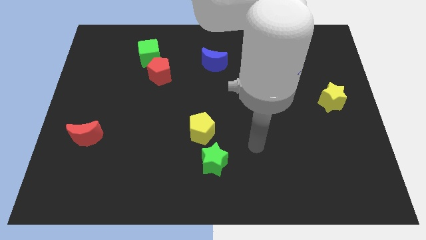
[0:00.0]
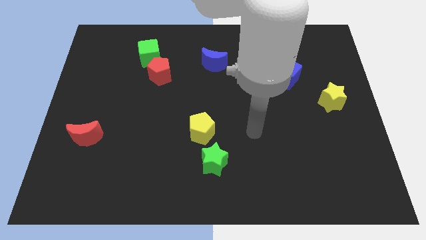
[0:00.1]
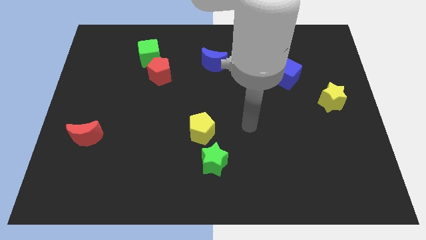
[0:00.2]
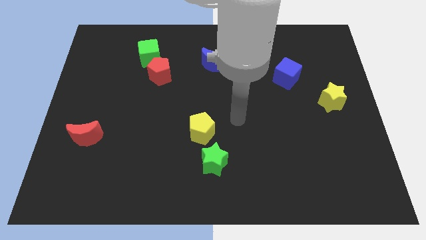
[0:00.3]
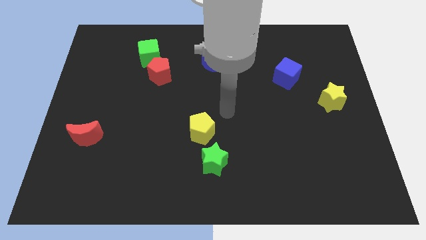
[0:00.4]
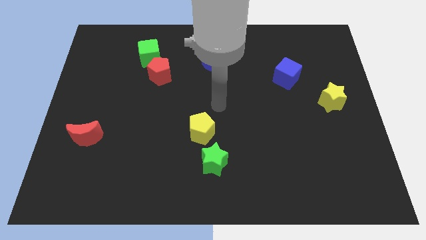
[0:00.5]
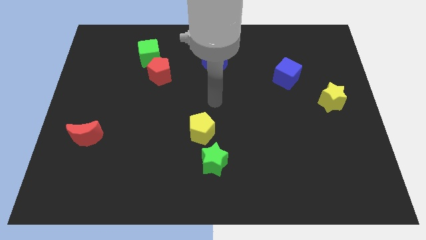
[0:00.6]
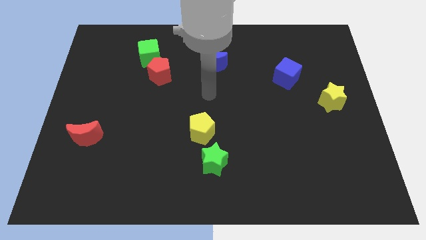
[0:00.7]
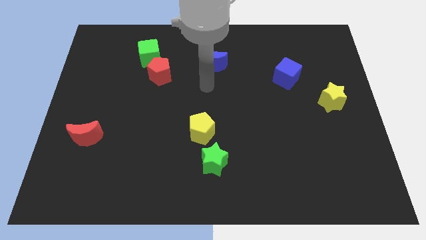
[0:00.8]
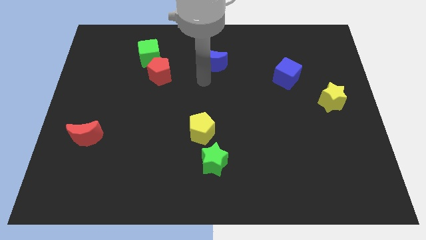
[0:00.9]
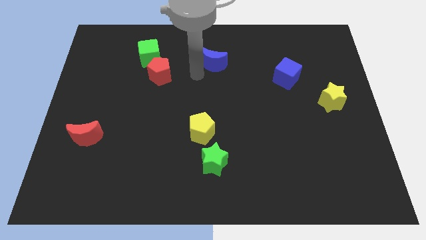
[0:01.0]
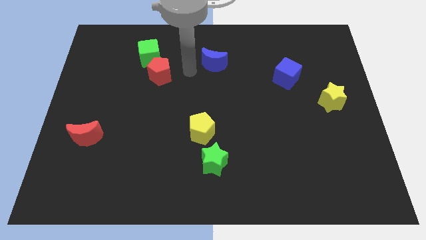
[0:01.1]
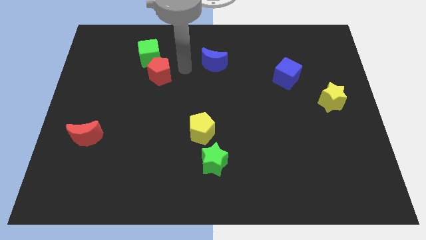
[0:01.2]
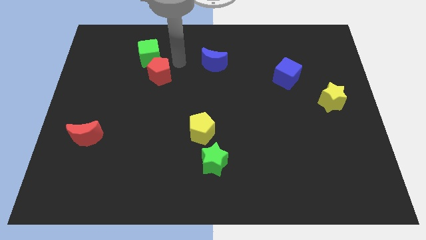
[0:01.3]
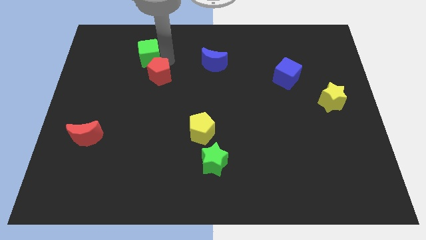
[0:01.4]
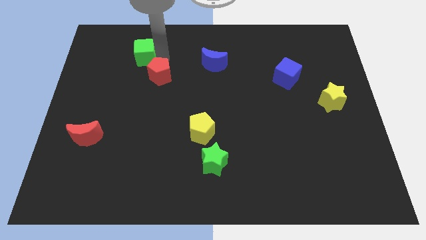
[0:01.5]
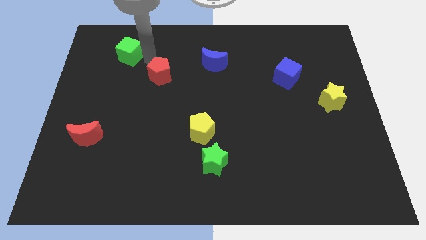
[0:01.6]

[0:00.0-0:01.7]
separate the red pentagon from the green cube

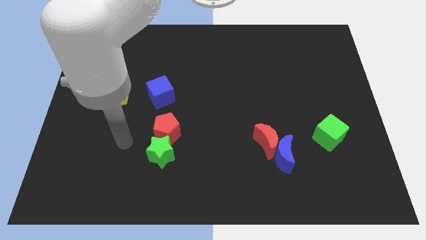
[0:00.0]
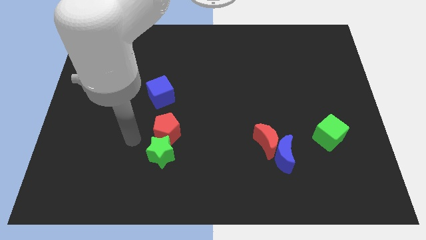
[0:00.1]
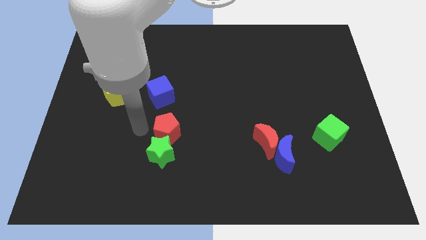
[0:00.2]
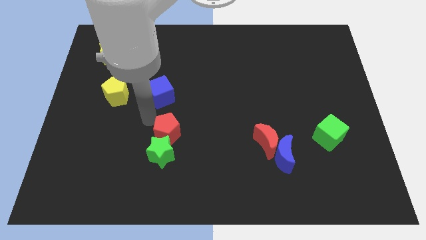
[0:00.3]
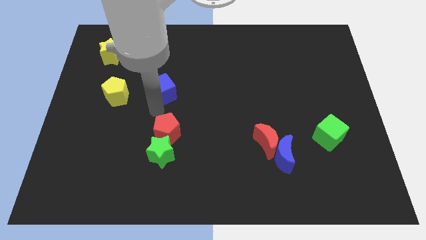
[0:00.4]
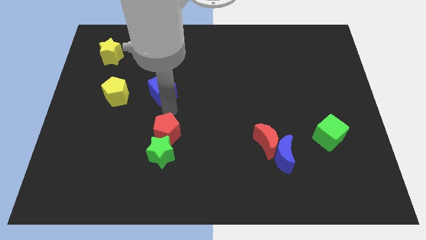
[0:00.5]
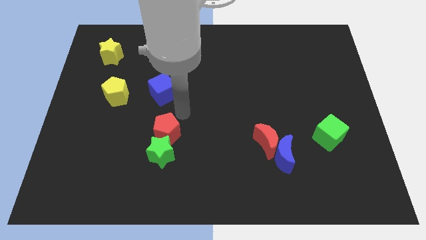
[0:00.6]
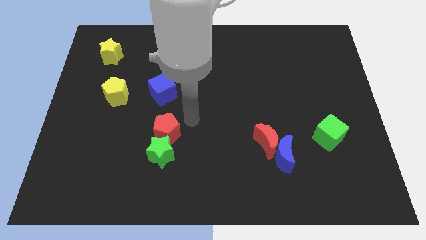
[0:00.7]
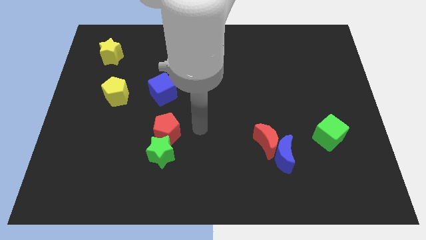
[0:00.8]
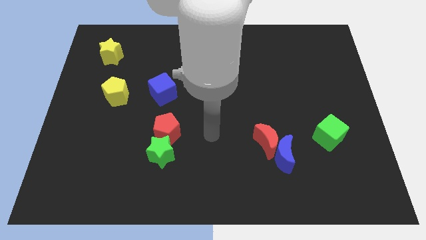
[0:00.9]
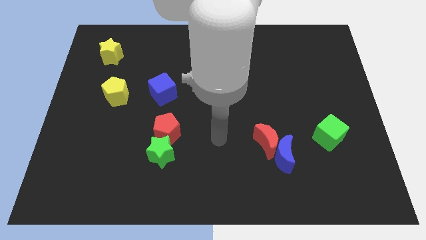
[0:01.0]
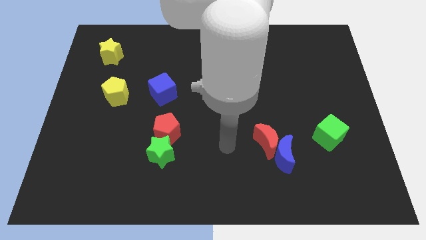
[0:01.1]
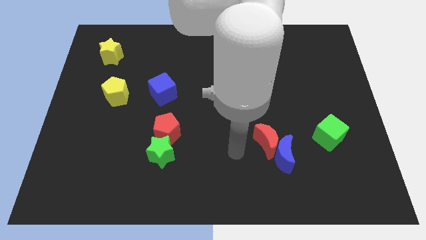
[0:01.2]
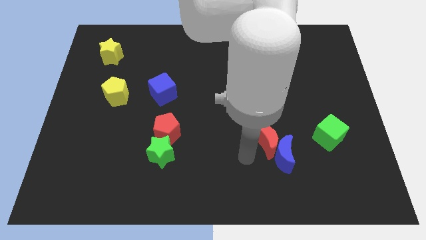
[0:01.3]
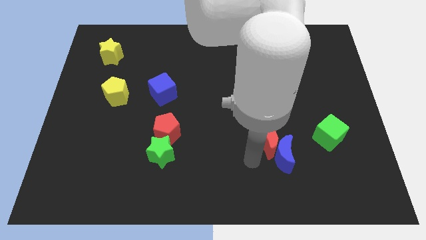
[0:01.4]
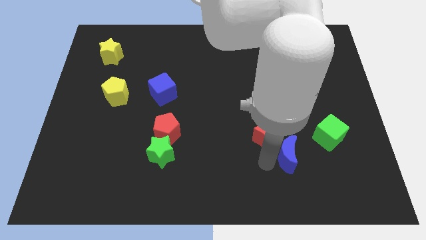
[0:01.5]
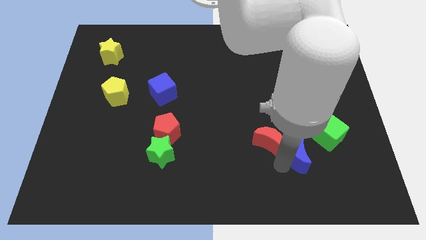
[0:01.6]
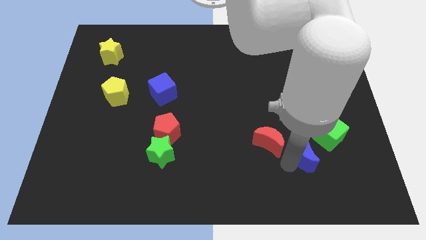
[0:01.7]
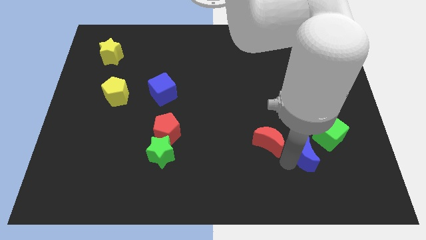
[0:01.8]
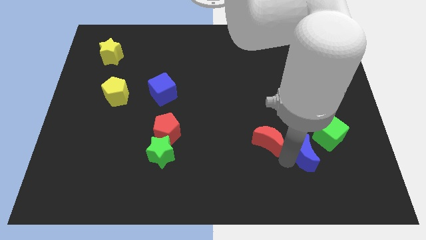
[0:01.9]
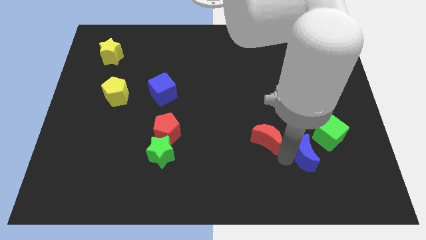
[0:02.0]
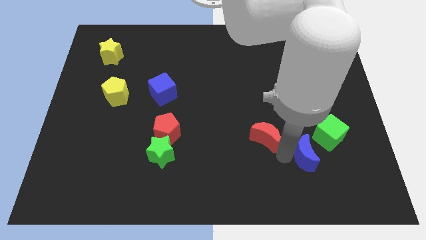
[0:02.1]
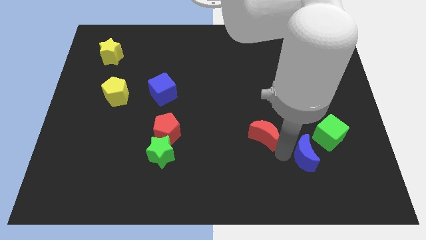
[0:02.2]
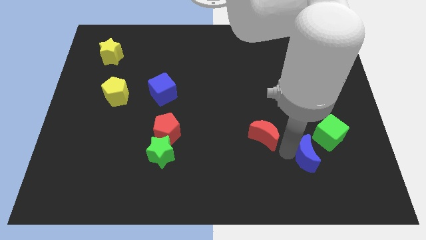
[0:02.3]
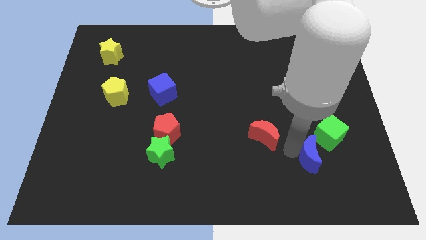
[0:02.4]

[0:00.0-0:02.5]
pull the red moon apart from the blue moon

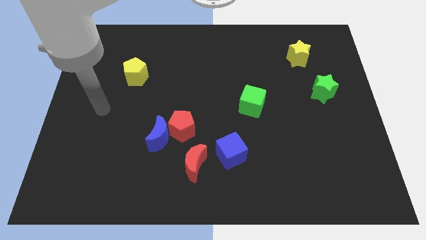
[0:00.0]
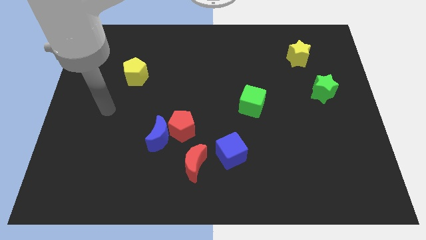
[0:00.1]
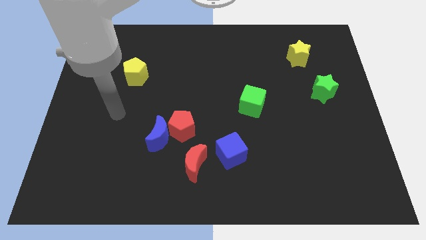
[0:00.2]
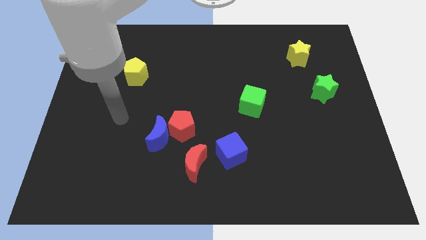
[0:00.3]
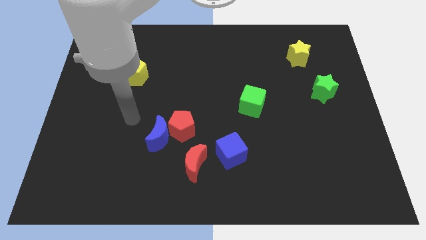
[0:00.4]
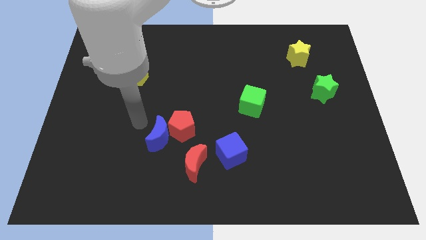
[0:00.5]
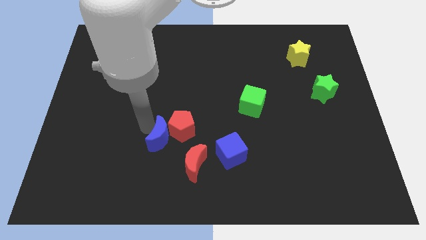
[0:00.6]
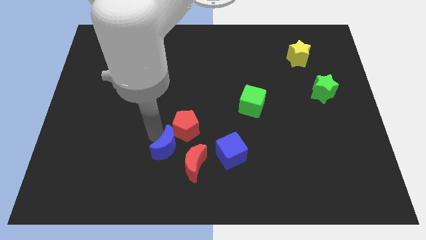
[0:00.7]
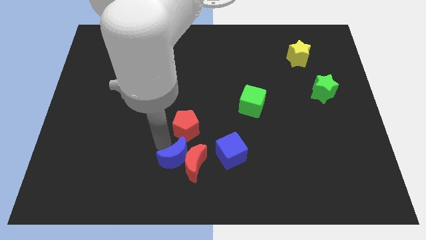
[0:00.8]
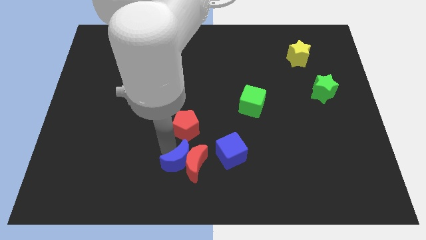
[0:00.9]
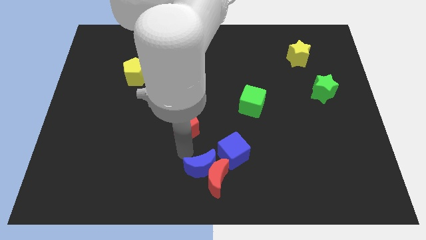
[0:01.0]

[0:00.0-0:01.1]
separate the red pentagon from the blue moon and red moon

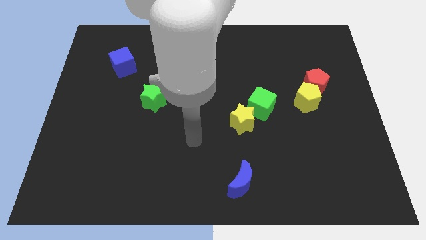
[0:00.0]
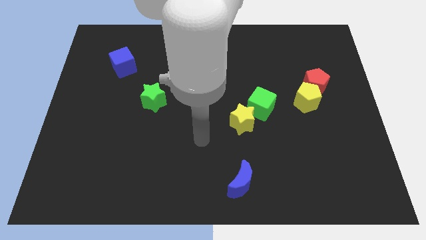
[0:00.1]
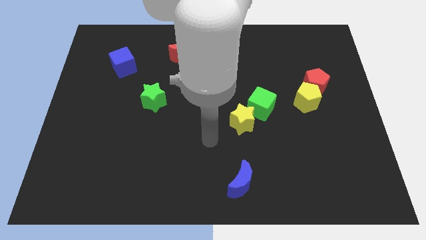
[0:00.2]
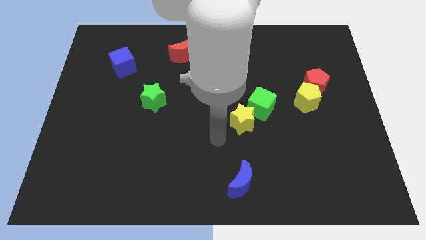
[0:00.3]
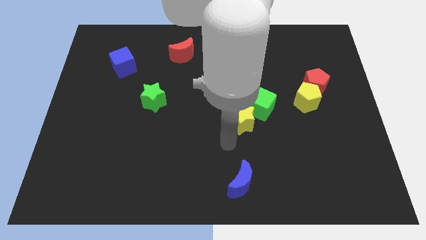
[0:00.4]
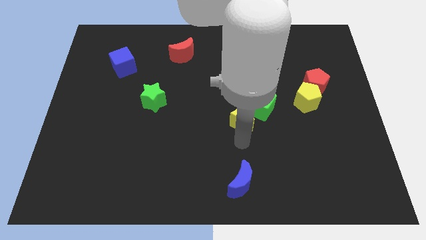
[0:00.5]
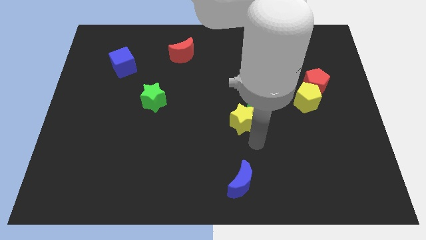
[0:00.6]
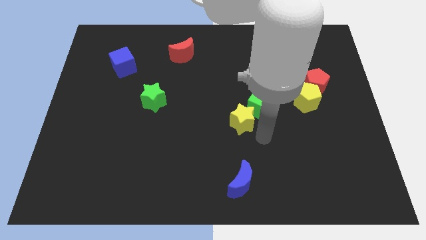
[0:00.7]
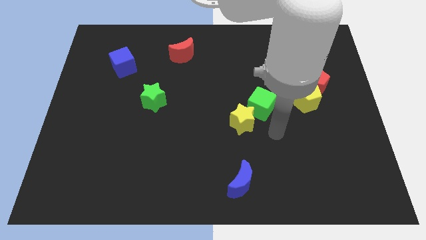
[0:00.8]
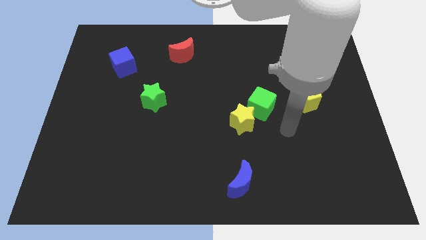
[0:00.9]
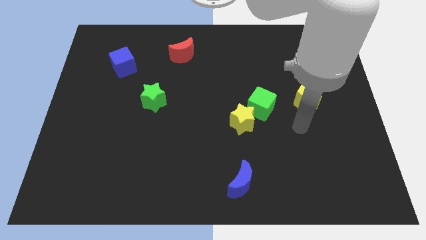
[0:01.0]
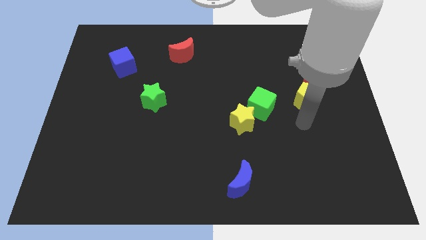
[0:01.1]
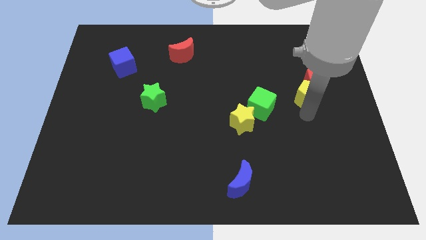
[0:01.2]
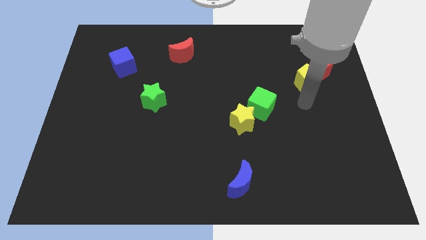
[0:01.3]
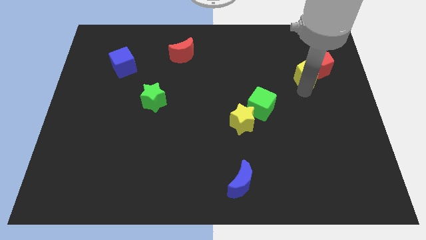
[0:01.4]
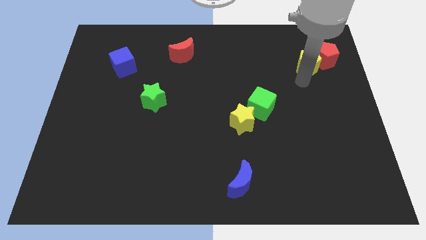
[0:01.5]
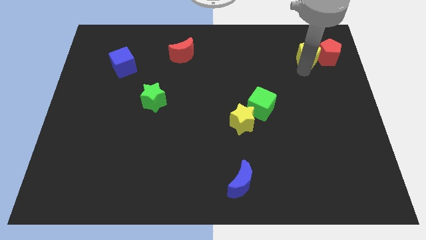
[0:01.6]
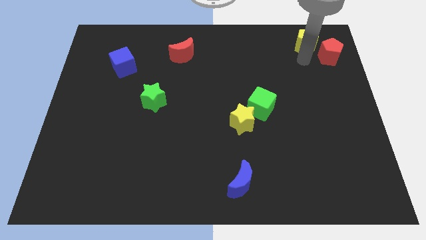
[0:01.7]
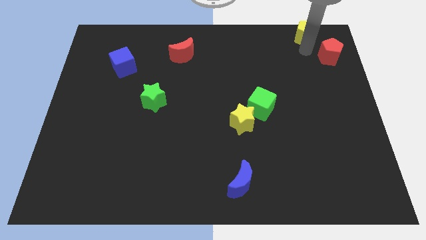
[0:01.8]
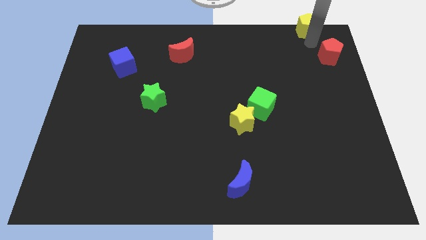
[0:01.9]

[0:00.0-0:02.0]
pull the red pentagon apart from the yellow pentagon

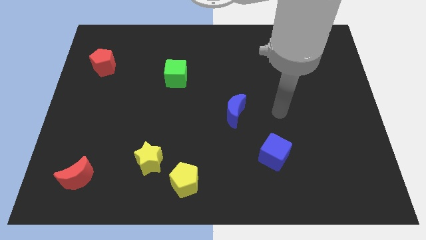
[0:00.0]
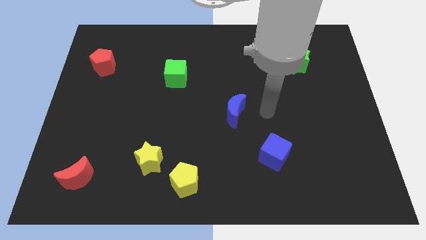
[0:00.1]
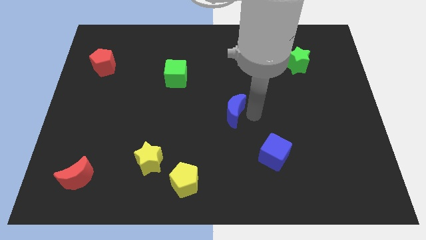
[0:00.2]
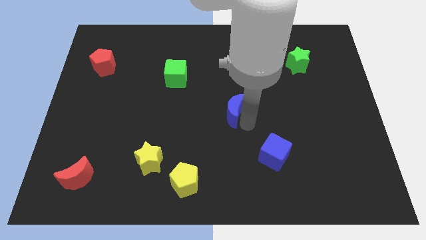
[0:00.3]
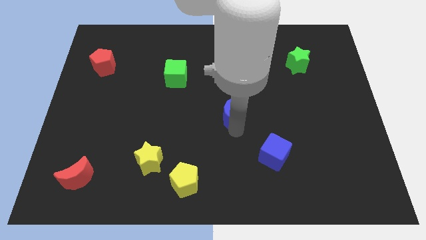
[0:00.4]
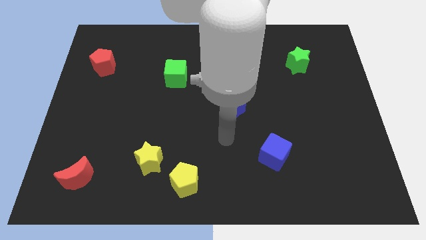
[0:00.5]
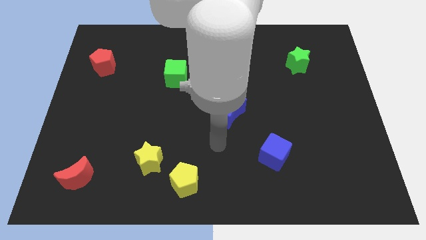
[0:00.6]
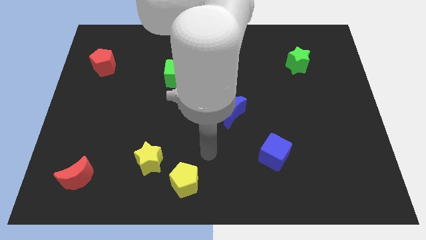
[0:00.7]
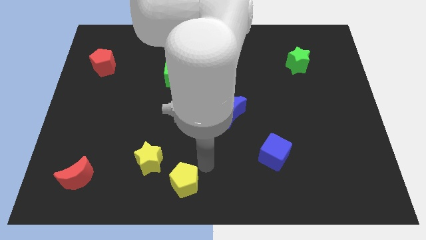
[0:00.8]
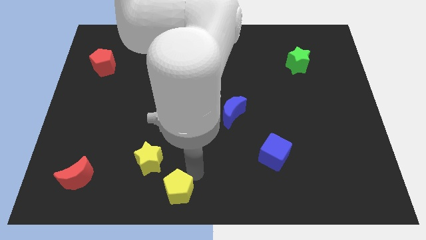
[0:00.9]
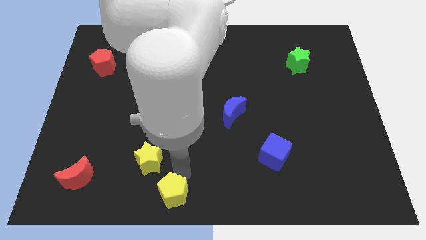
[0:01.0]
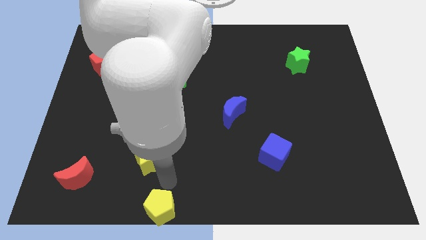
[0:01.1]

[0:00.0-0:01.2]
move the yellow star away from the yellow pentagon

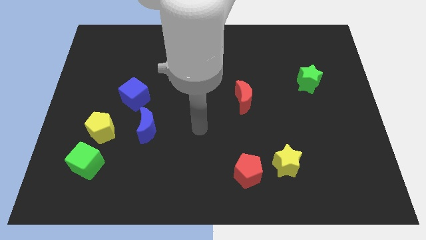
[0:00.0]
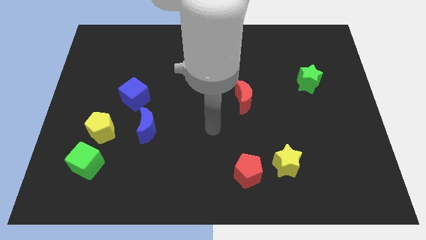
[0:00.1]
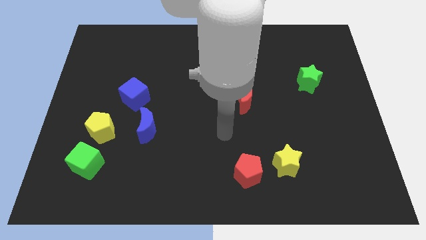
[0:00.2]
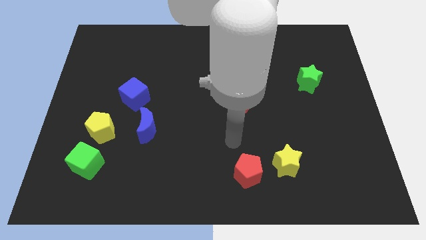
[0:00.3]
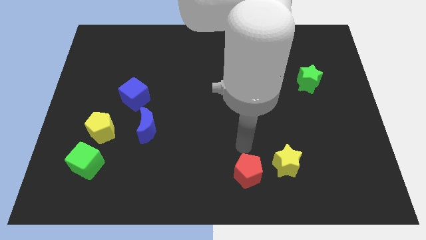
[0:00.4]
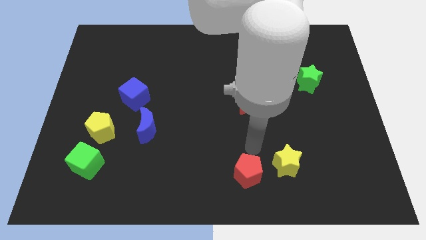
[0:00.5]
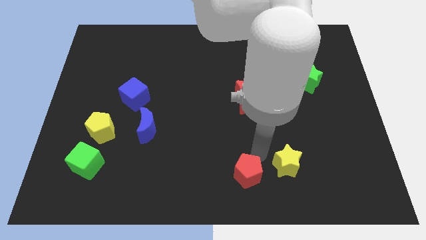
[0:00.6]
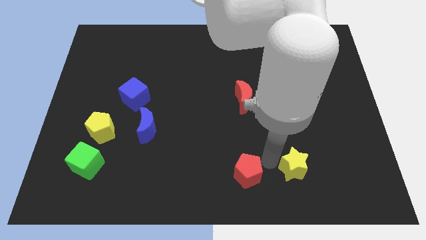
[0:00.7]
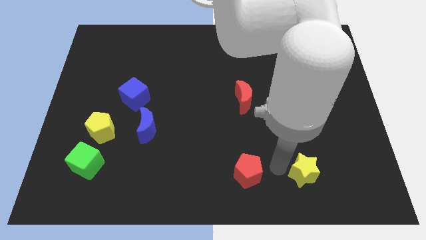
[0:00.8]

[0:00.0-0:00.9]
separate the red pentagon from the yellow star
